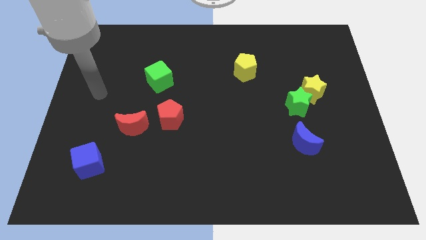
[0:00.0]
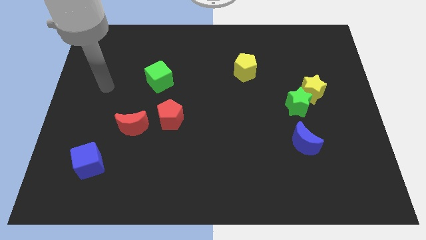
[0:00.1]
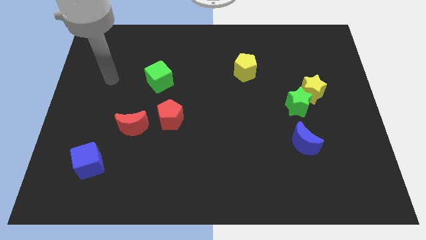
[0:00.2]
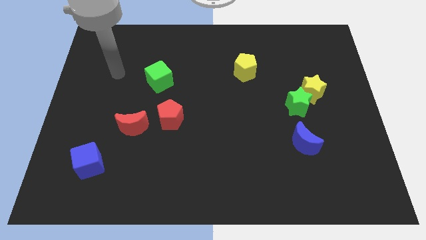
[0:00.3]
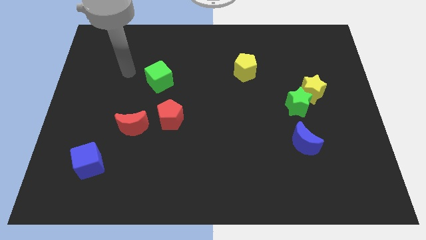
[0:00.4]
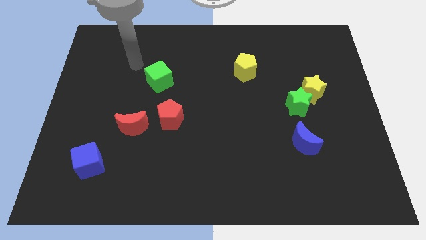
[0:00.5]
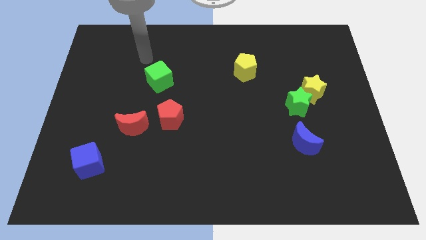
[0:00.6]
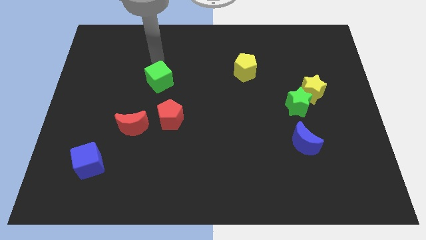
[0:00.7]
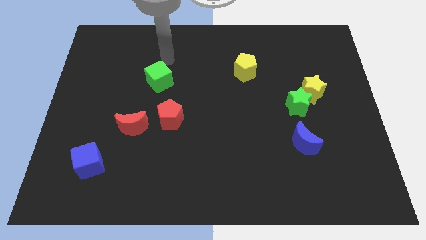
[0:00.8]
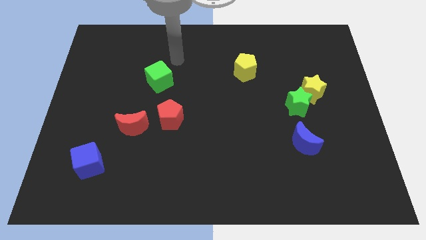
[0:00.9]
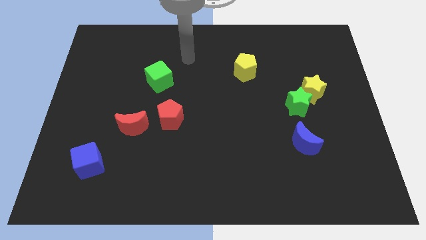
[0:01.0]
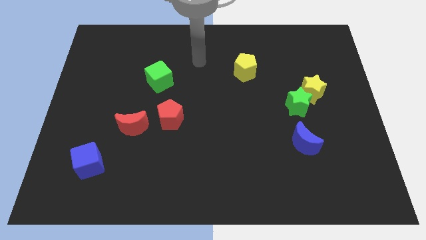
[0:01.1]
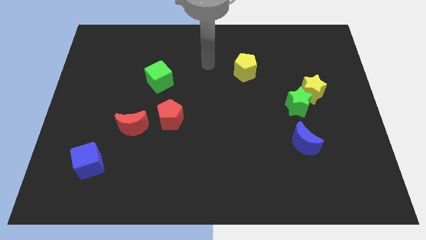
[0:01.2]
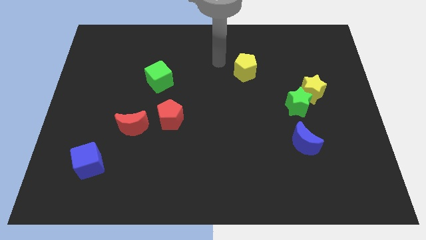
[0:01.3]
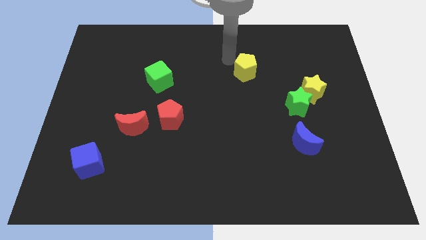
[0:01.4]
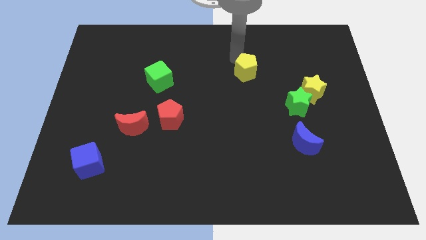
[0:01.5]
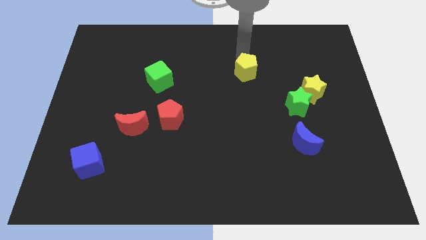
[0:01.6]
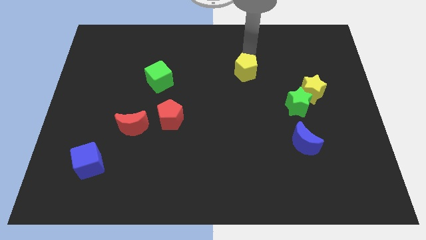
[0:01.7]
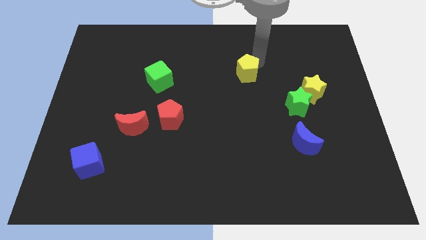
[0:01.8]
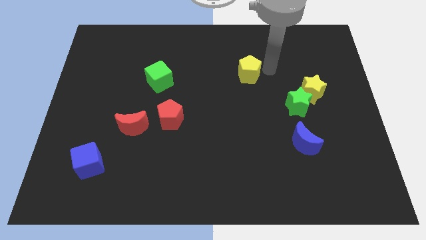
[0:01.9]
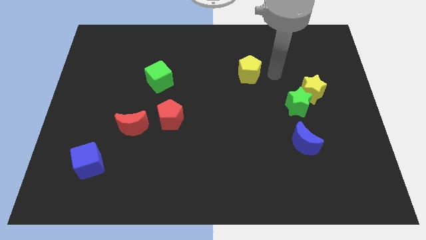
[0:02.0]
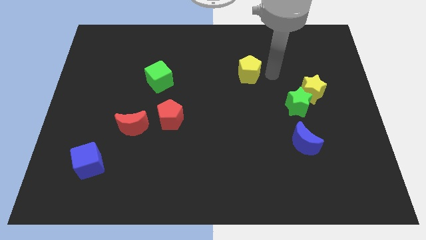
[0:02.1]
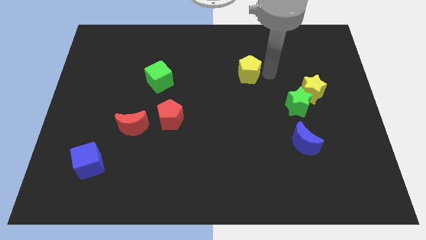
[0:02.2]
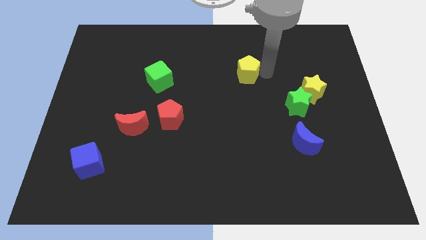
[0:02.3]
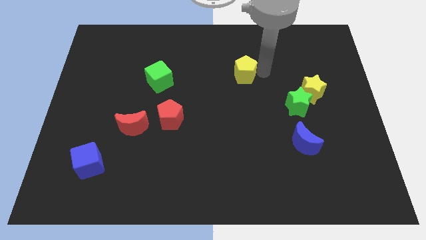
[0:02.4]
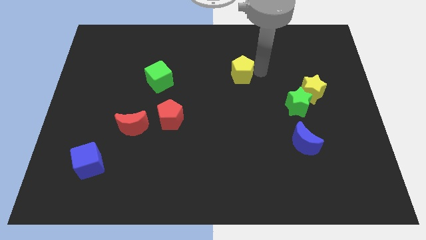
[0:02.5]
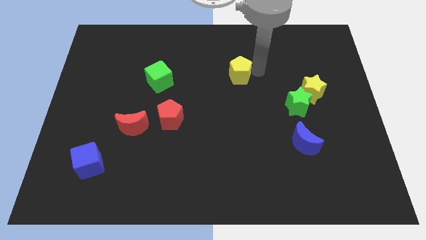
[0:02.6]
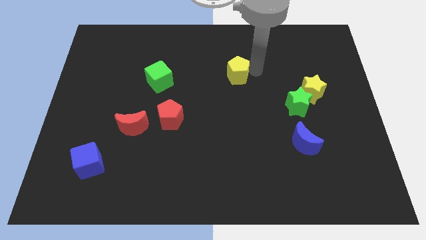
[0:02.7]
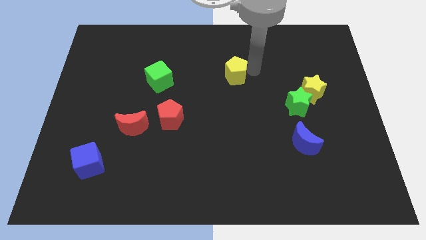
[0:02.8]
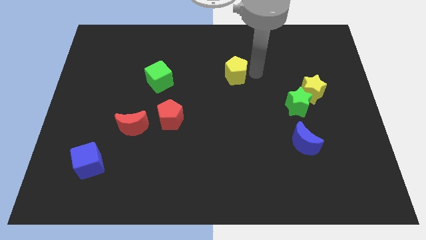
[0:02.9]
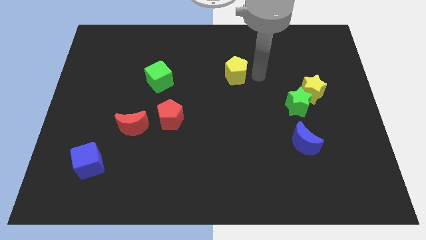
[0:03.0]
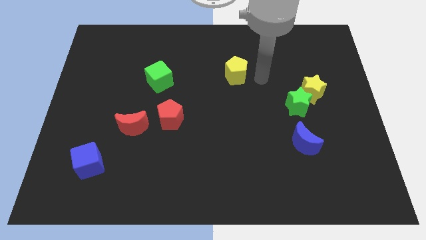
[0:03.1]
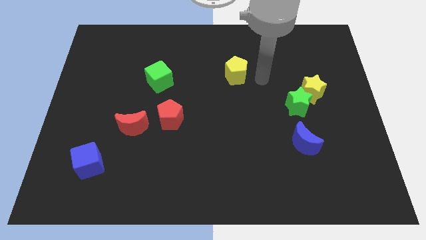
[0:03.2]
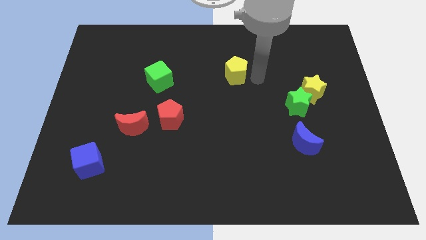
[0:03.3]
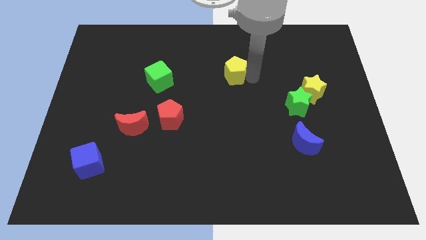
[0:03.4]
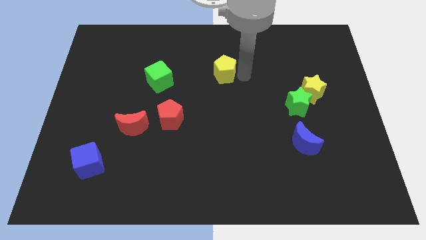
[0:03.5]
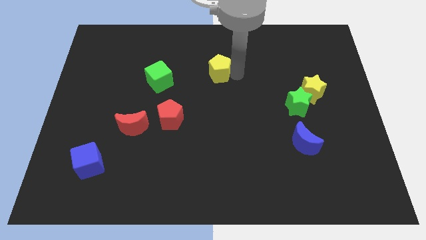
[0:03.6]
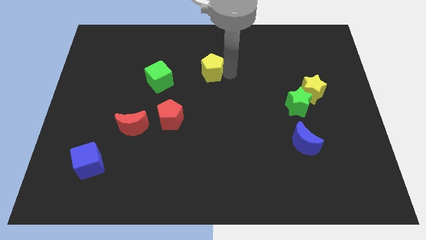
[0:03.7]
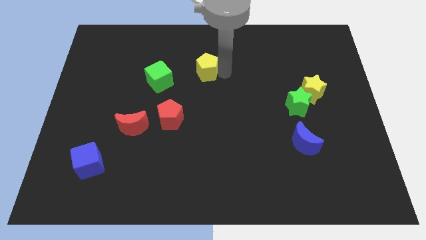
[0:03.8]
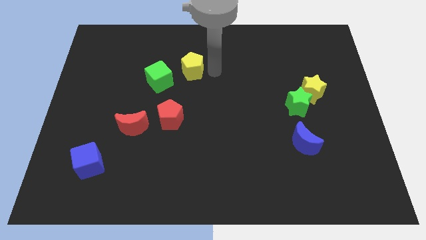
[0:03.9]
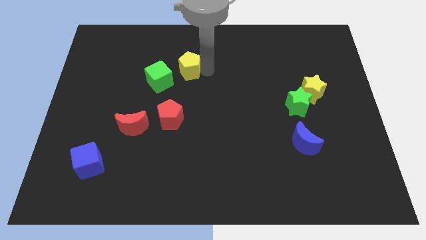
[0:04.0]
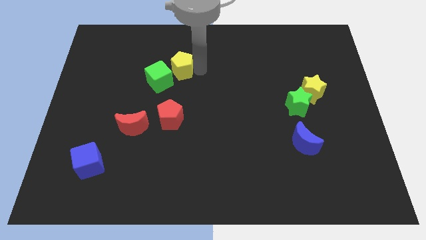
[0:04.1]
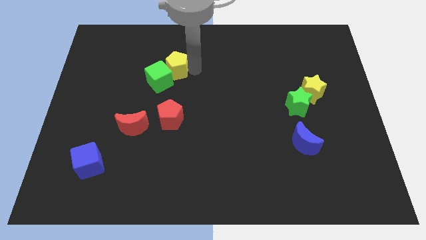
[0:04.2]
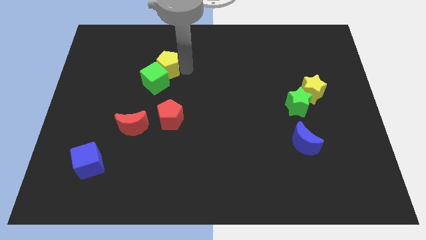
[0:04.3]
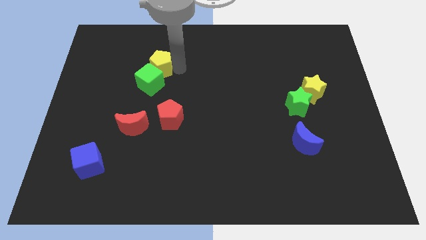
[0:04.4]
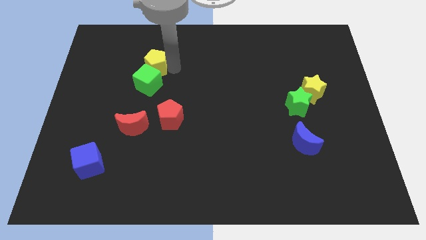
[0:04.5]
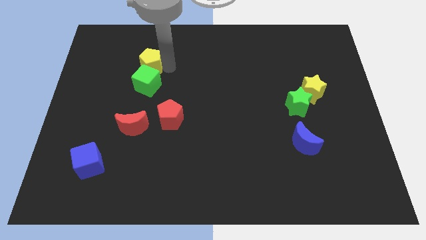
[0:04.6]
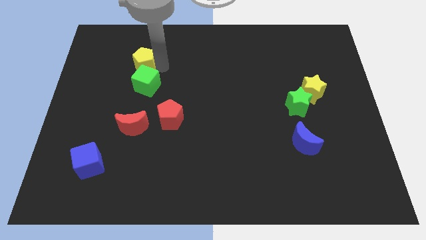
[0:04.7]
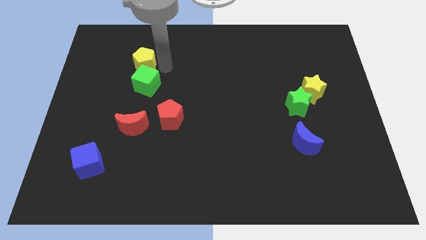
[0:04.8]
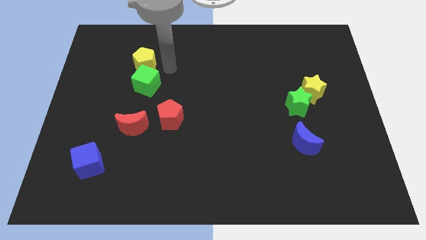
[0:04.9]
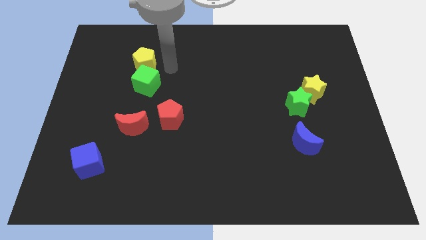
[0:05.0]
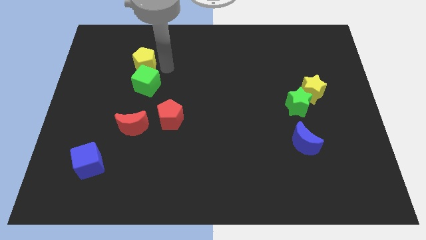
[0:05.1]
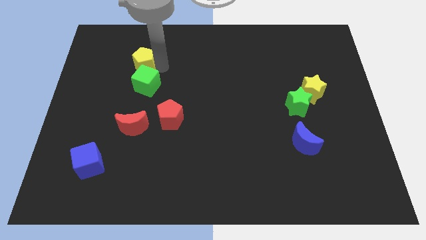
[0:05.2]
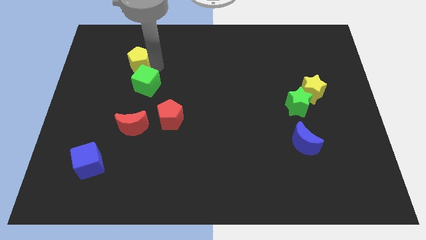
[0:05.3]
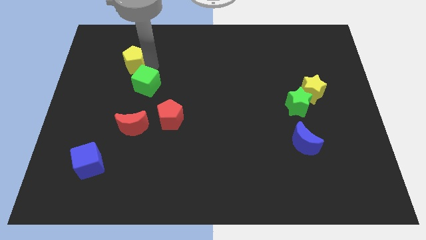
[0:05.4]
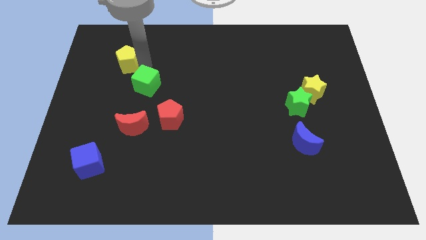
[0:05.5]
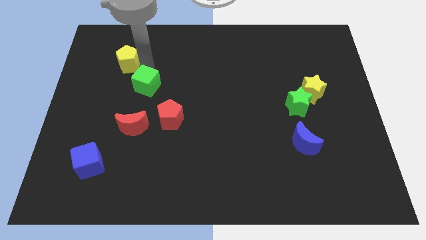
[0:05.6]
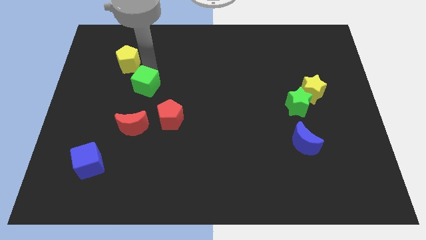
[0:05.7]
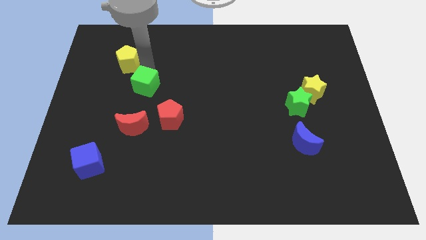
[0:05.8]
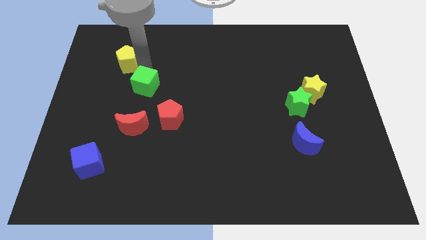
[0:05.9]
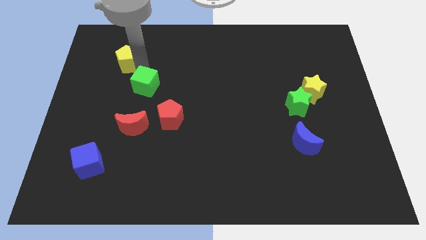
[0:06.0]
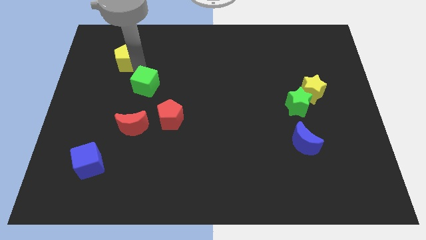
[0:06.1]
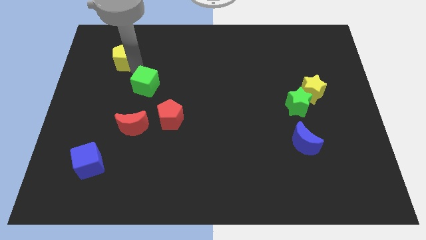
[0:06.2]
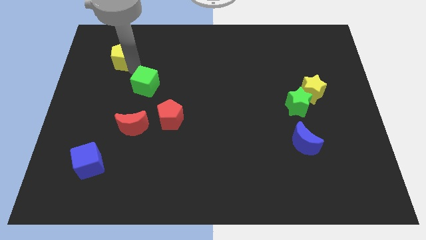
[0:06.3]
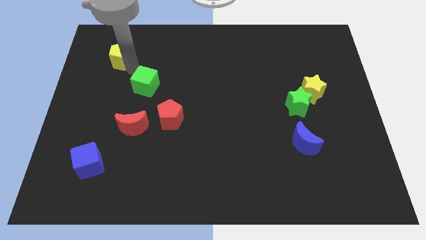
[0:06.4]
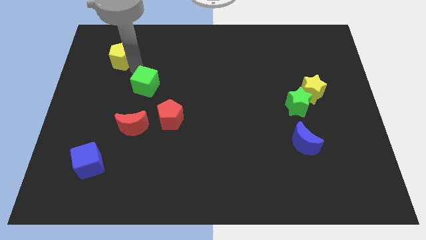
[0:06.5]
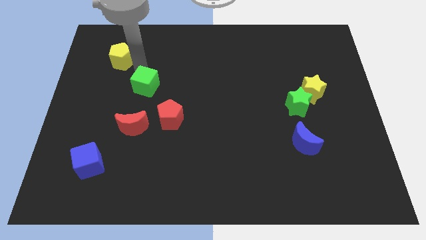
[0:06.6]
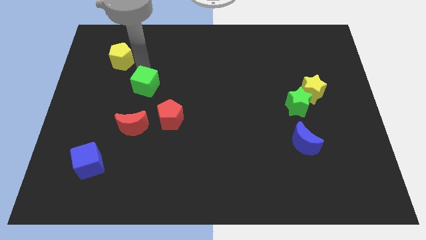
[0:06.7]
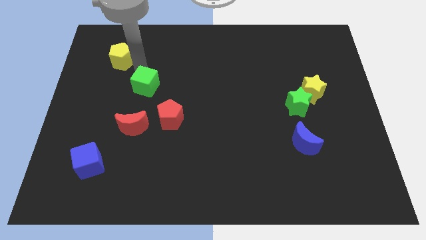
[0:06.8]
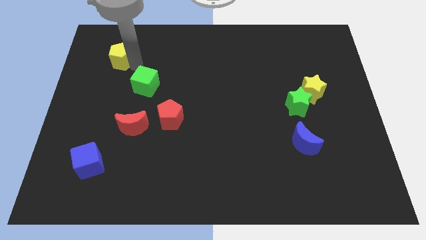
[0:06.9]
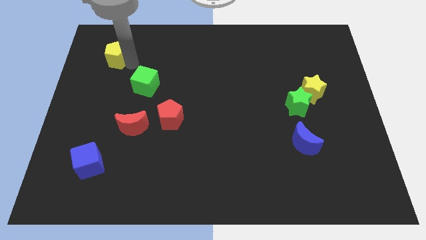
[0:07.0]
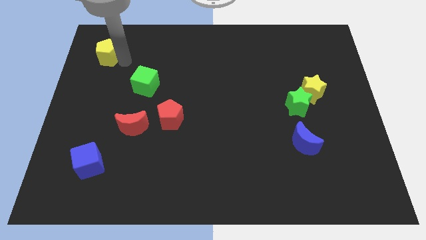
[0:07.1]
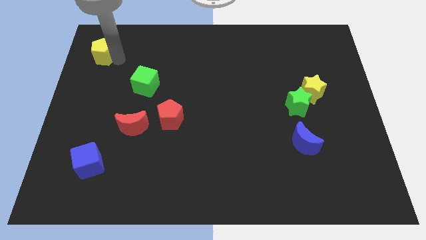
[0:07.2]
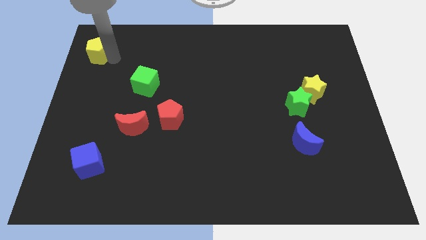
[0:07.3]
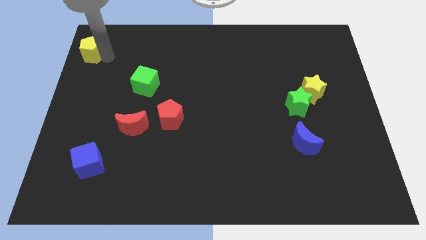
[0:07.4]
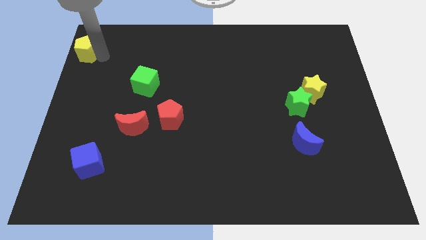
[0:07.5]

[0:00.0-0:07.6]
slide the yellow pentagon to the top left
